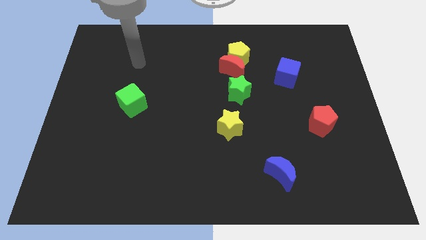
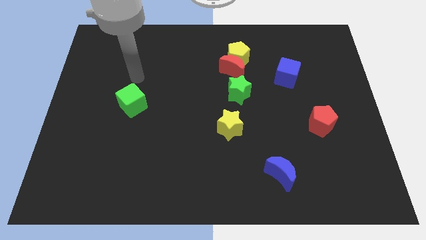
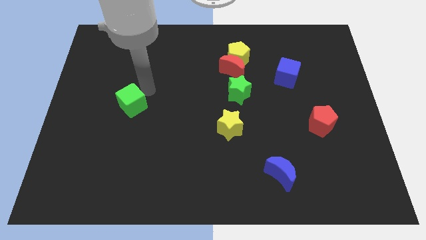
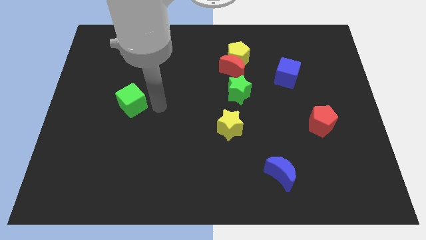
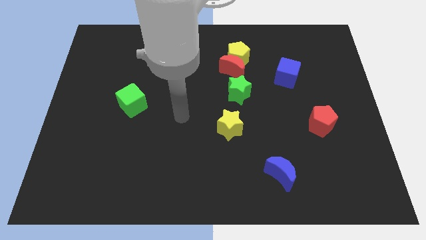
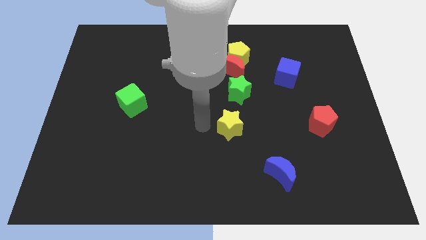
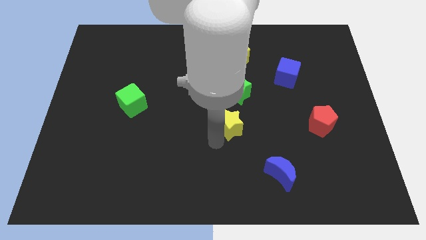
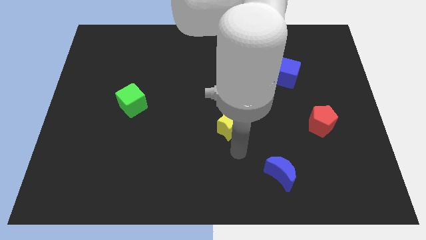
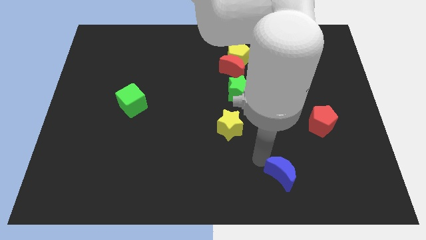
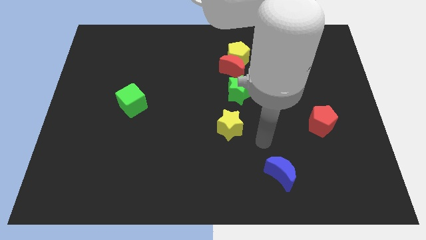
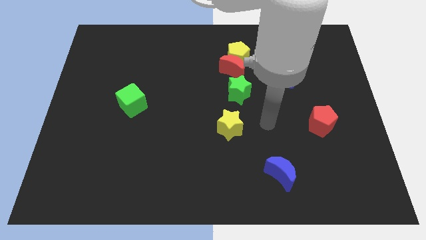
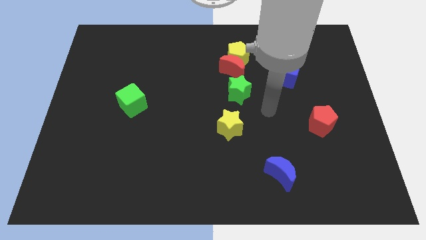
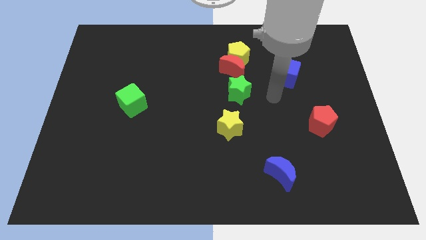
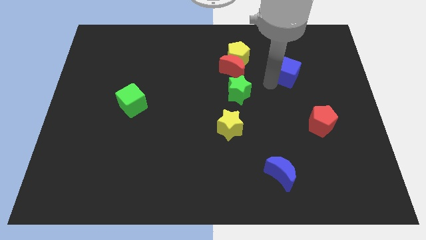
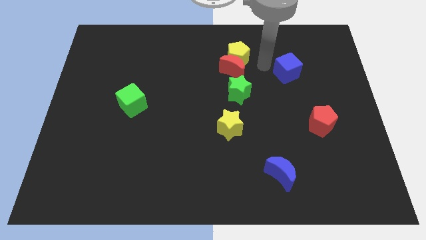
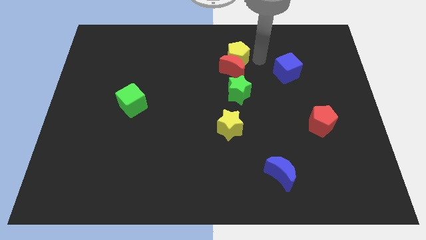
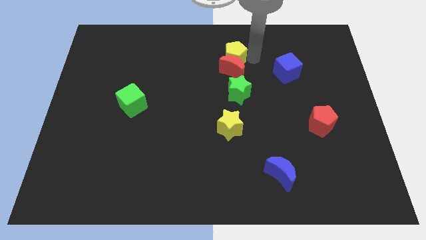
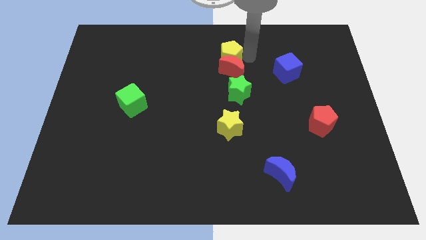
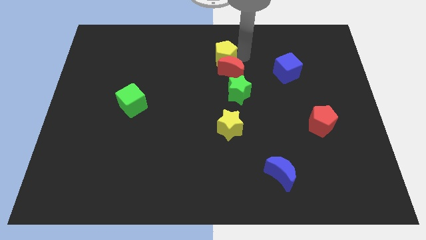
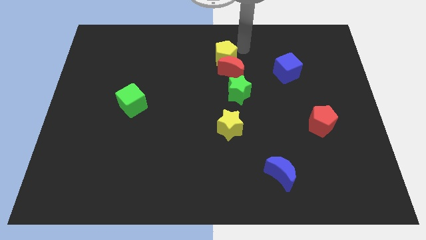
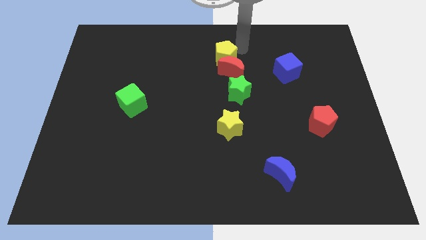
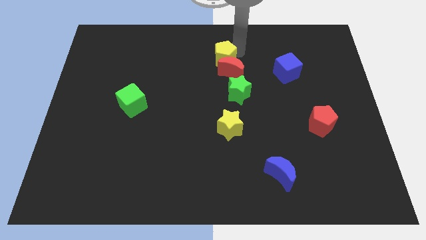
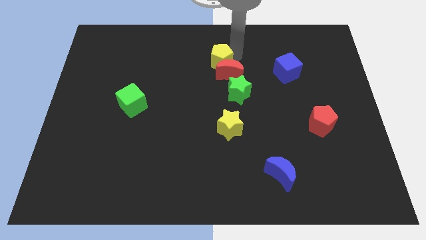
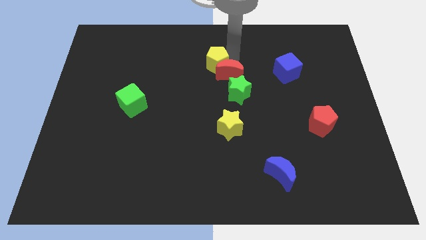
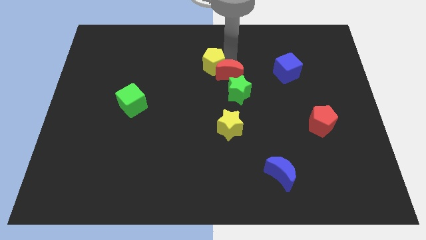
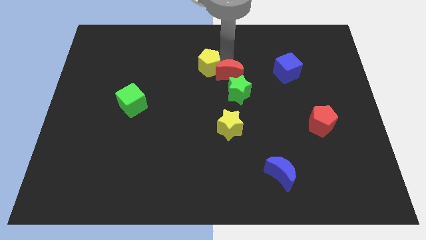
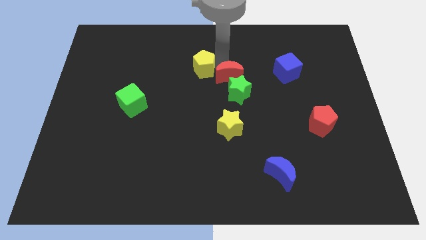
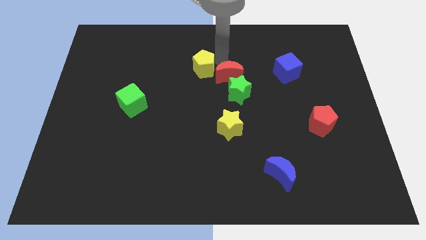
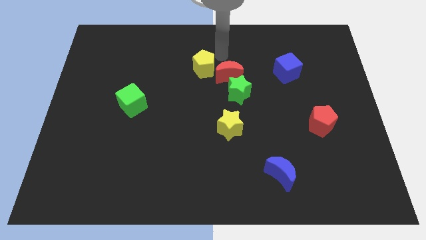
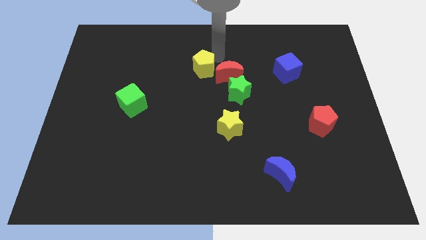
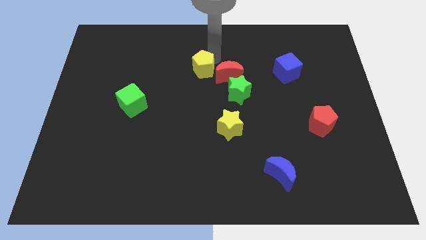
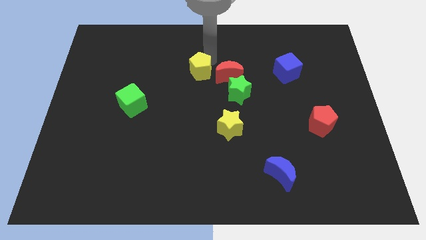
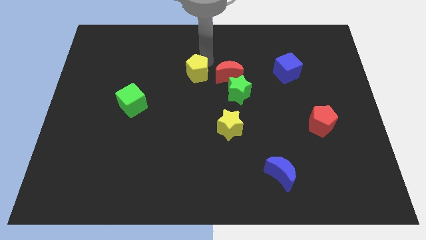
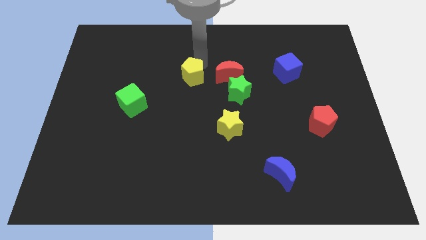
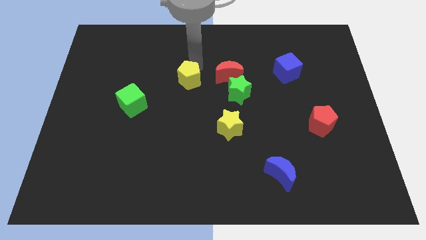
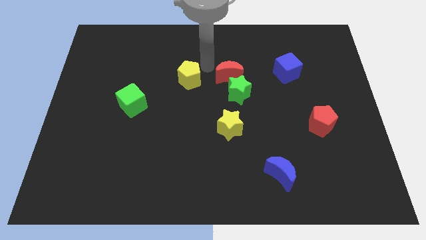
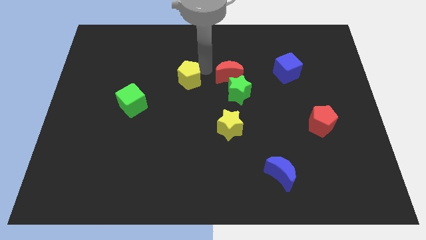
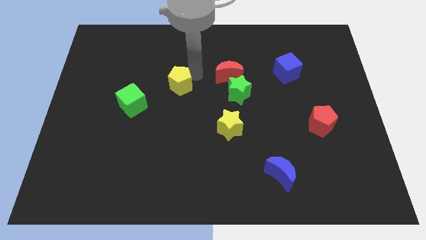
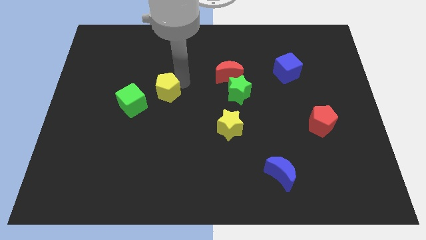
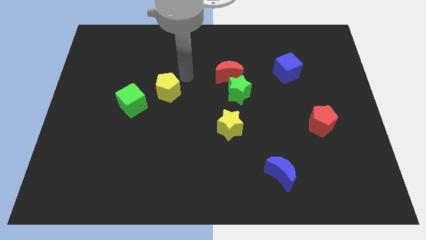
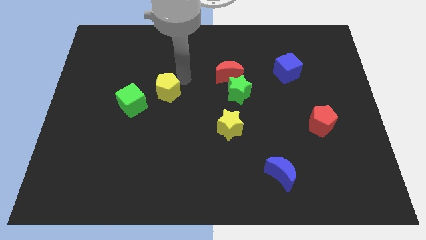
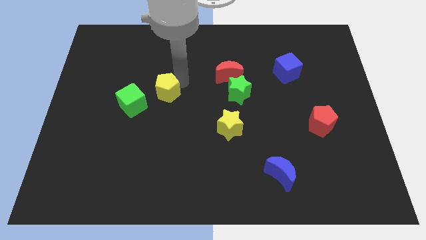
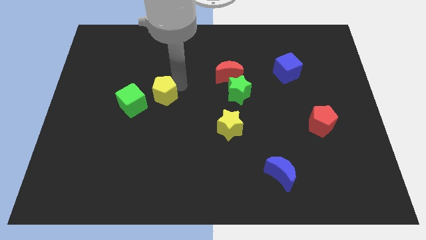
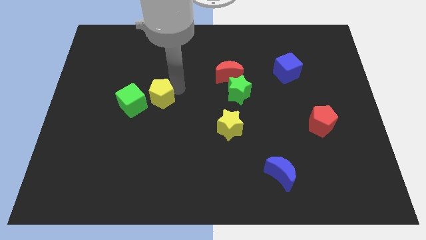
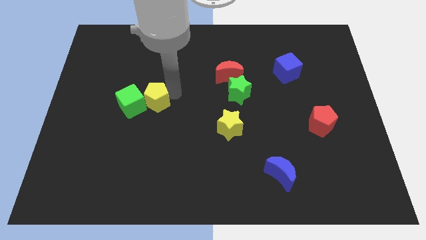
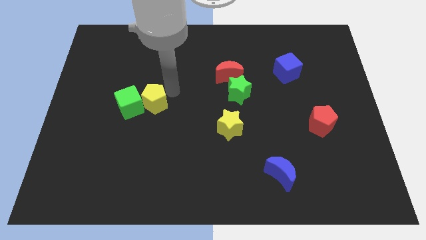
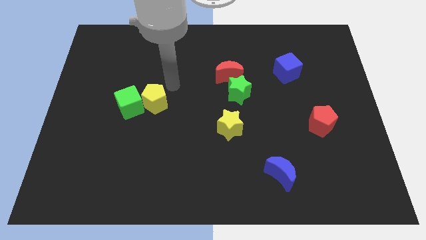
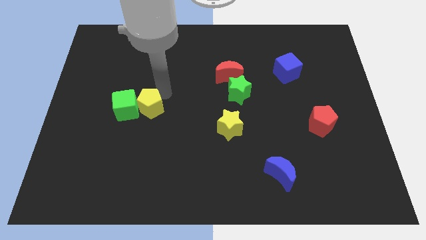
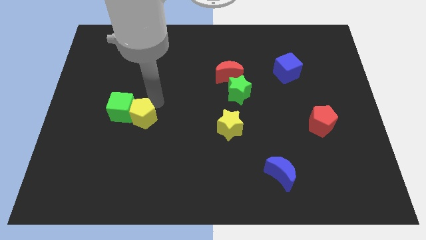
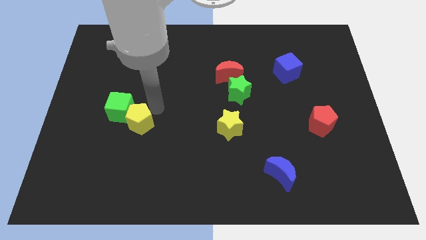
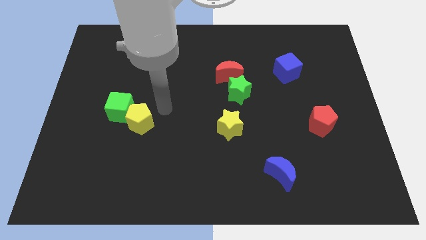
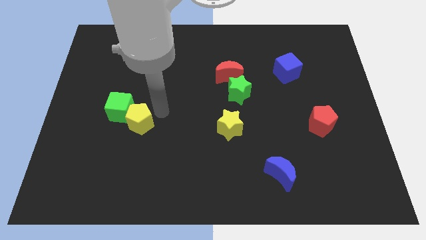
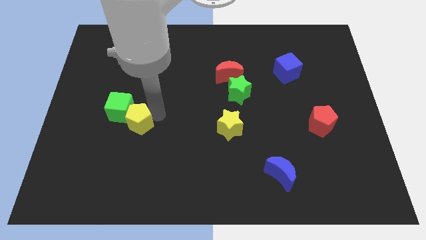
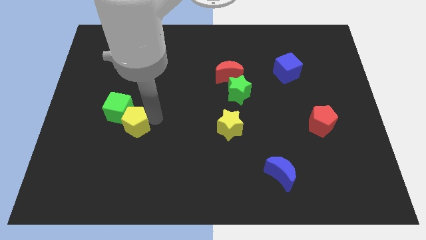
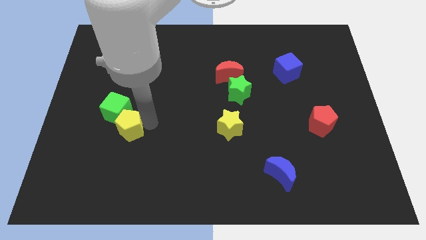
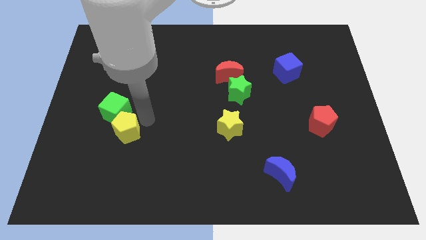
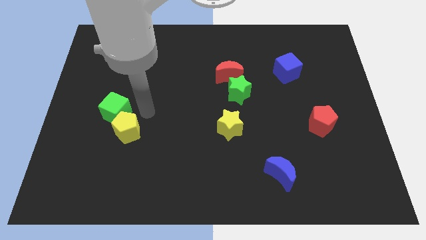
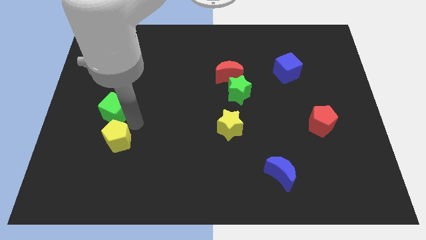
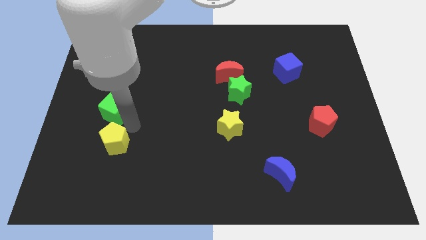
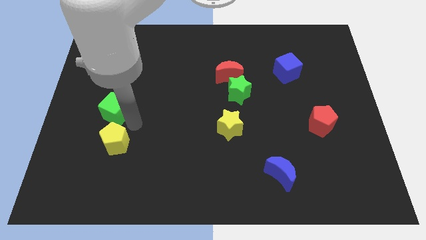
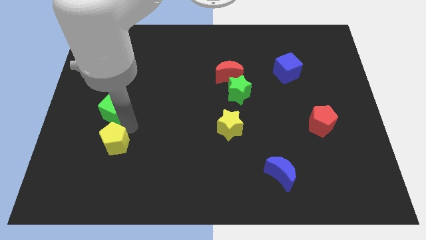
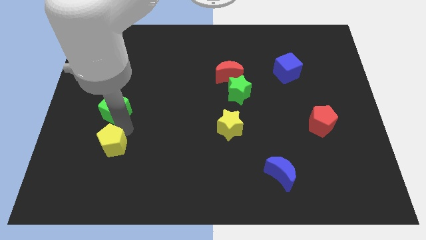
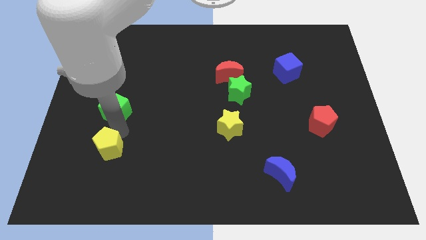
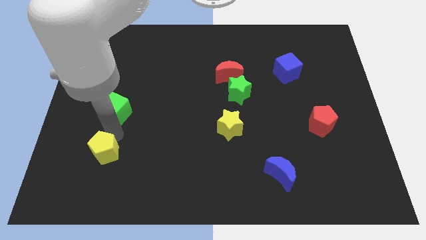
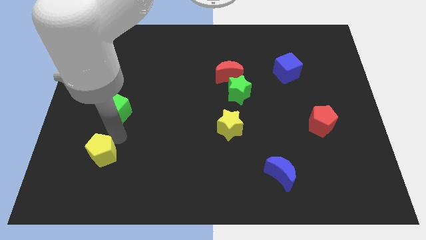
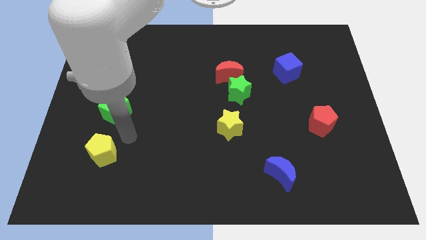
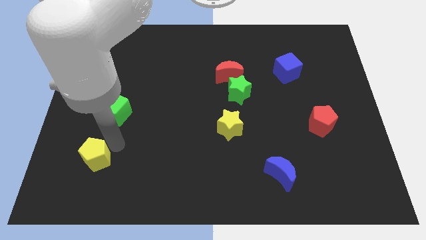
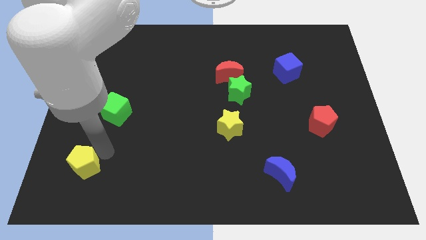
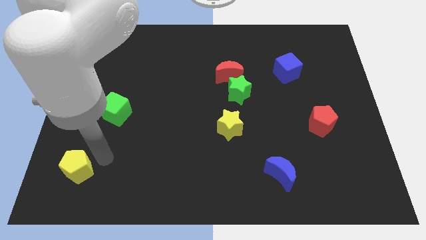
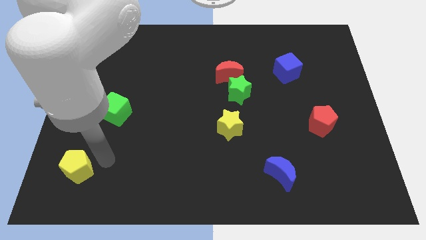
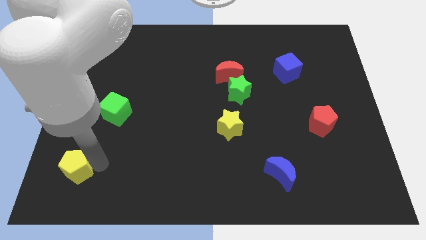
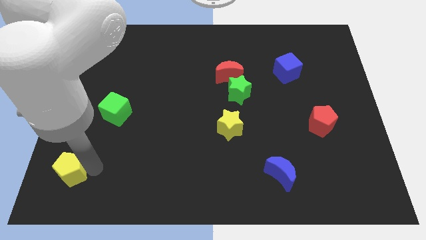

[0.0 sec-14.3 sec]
slide the yellow pentagon to the bottom left corner

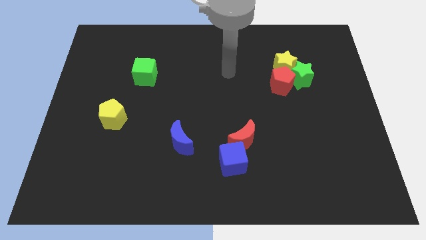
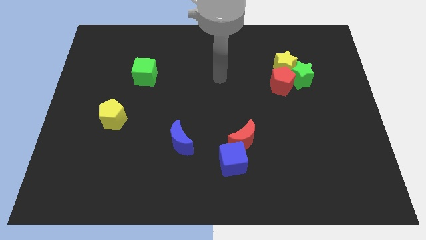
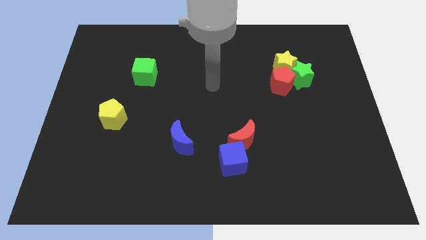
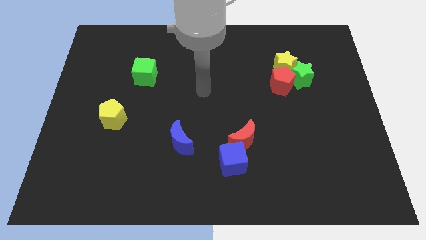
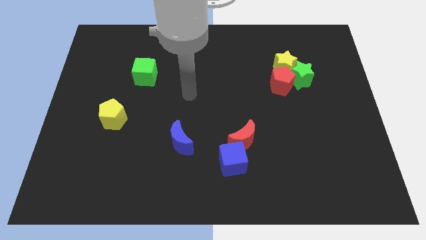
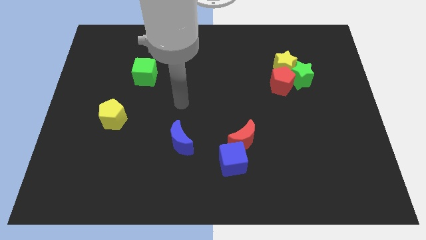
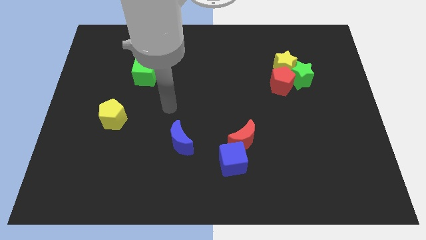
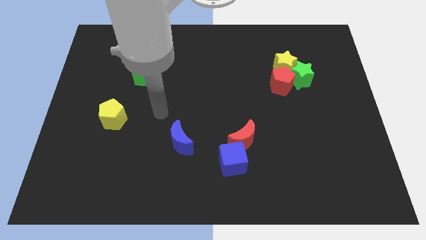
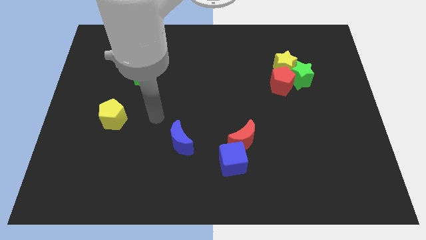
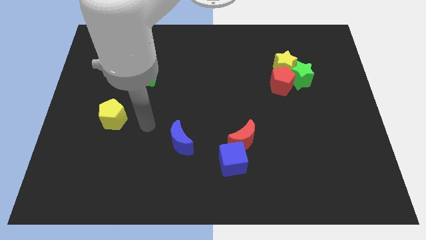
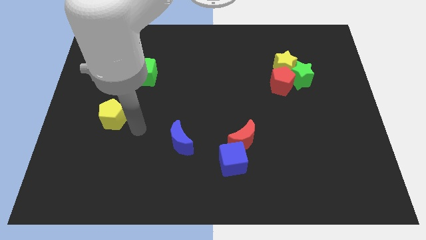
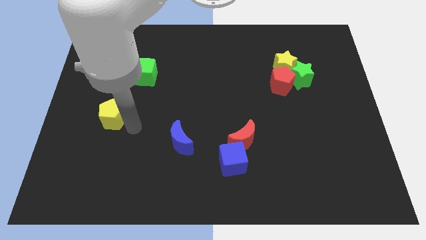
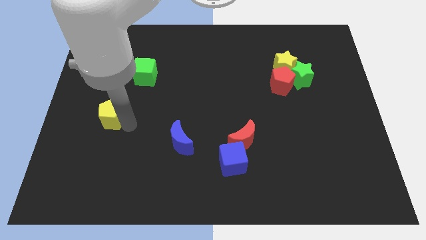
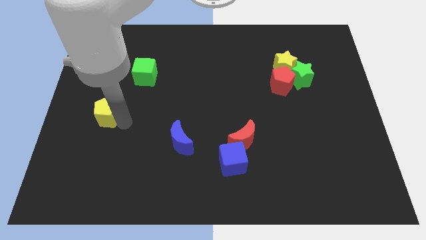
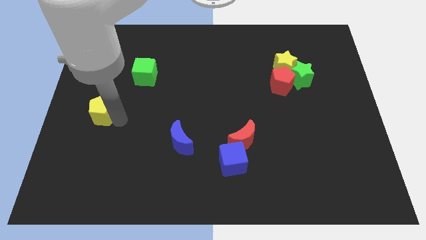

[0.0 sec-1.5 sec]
push the yellow pentagon to the left side of the board
